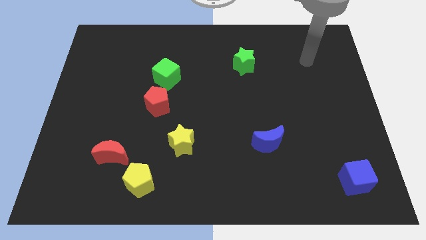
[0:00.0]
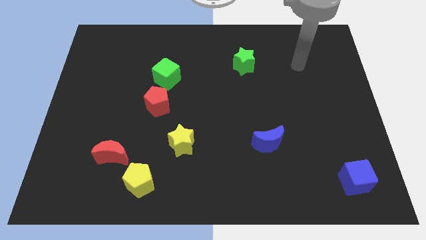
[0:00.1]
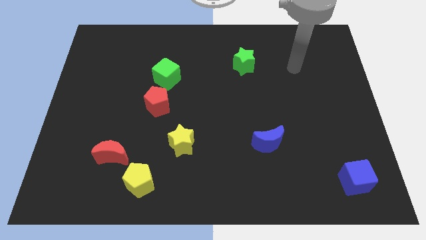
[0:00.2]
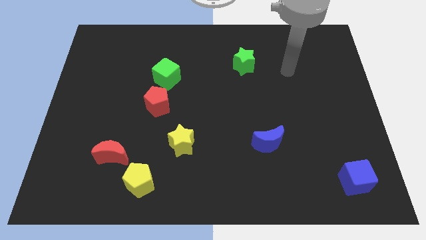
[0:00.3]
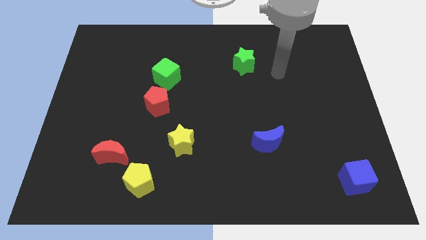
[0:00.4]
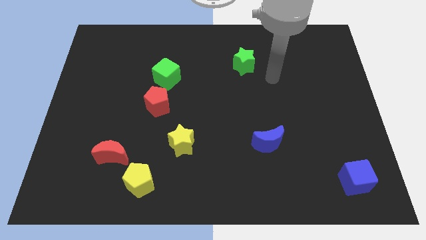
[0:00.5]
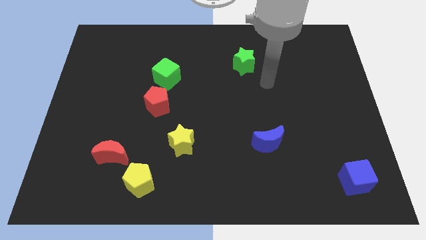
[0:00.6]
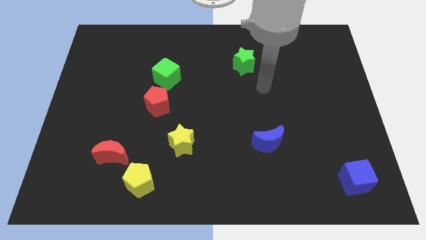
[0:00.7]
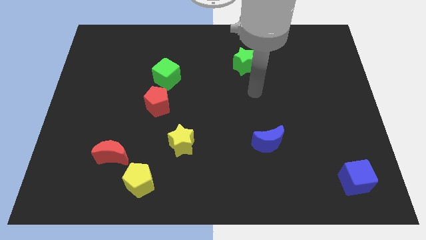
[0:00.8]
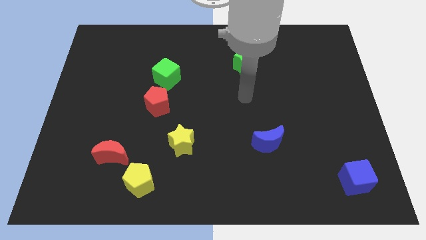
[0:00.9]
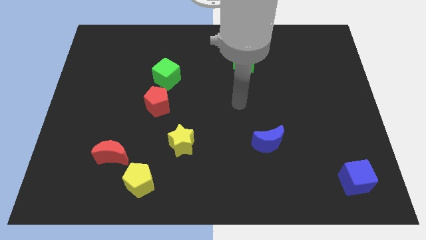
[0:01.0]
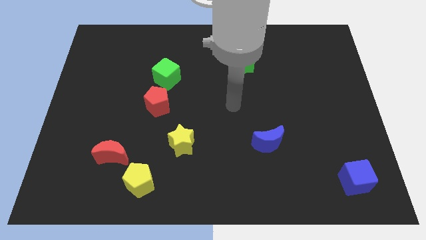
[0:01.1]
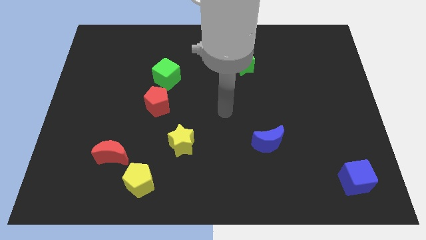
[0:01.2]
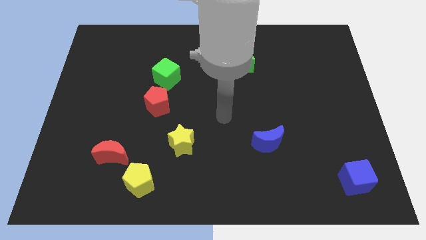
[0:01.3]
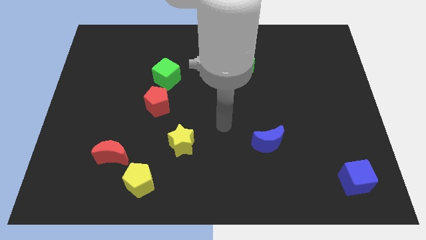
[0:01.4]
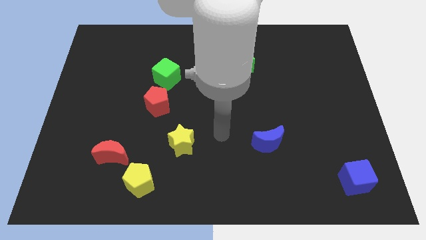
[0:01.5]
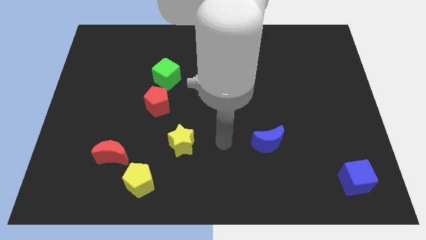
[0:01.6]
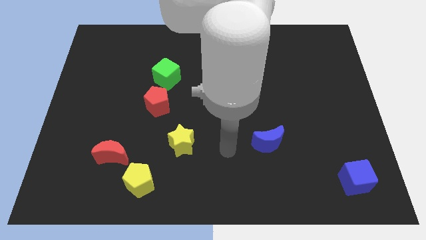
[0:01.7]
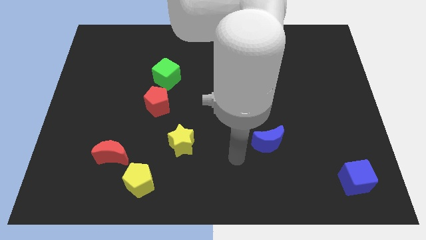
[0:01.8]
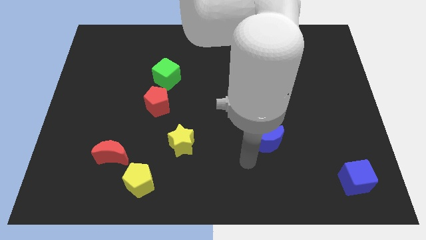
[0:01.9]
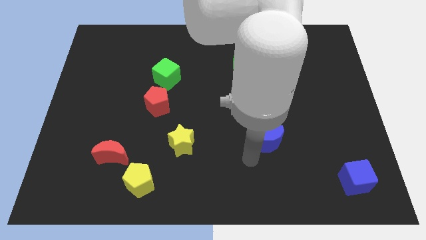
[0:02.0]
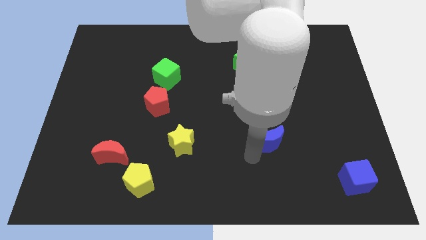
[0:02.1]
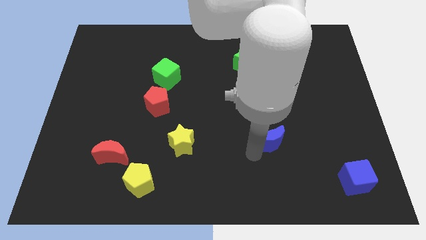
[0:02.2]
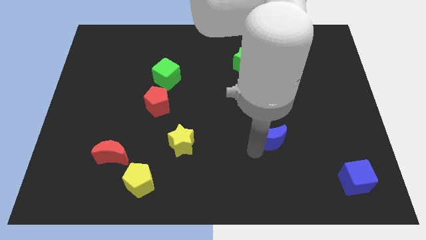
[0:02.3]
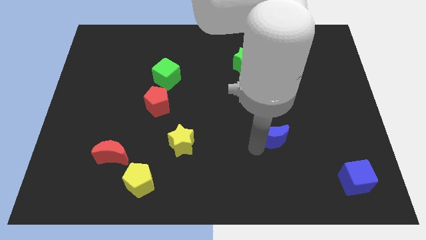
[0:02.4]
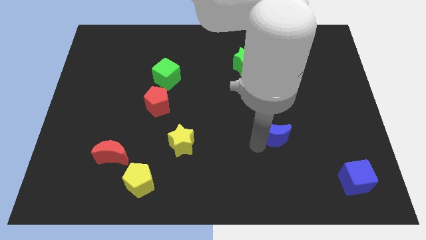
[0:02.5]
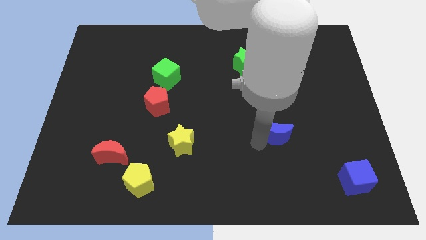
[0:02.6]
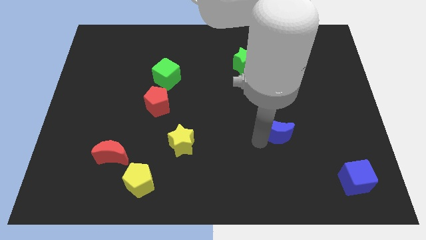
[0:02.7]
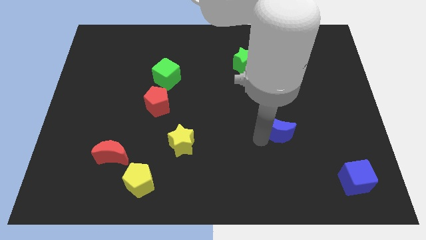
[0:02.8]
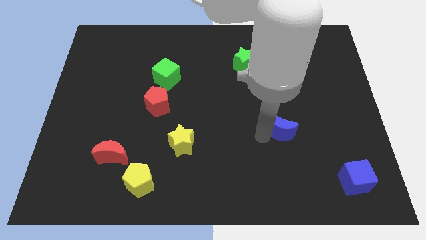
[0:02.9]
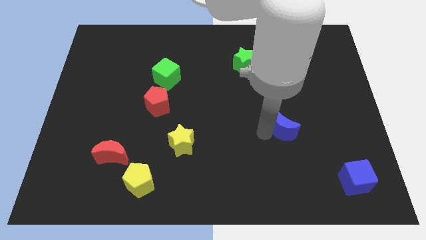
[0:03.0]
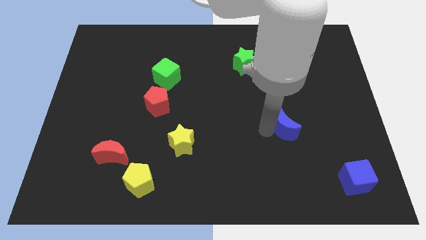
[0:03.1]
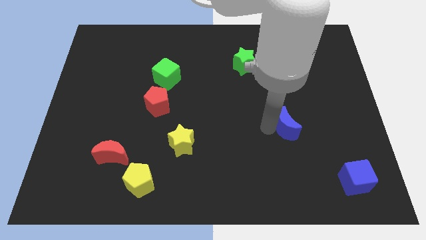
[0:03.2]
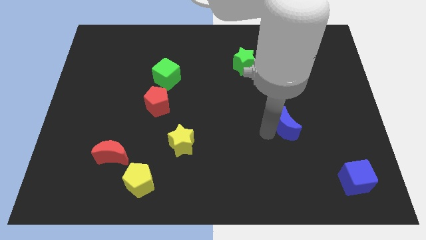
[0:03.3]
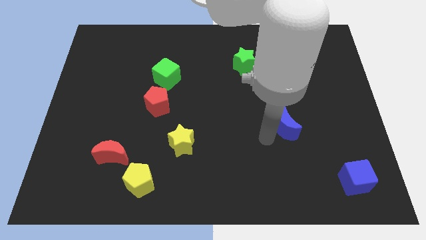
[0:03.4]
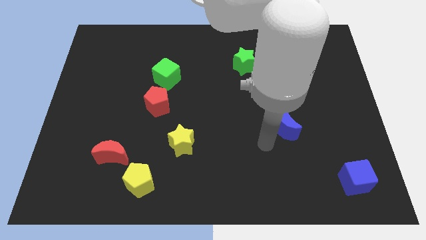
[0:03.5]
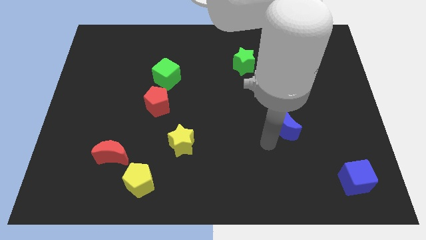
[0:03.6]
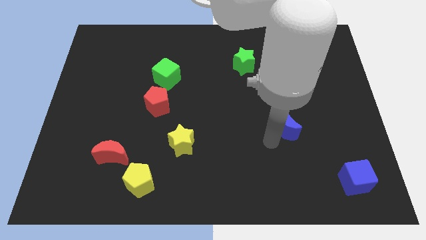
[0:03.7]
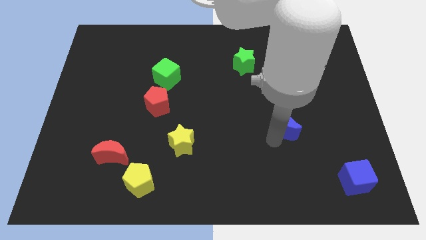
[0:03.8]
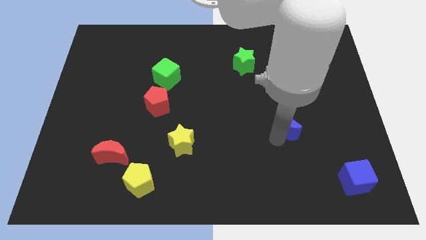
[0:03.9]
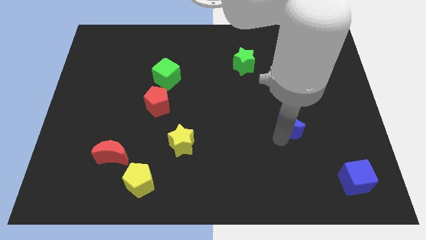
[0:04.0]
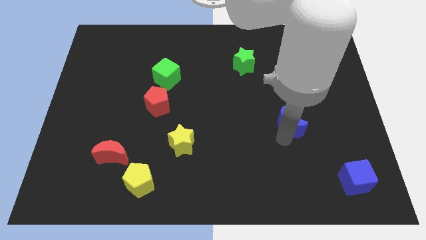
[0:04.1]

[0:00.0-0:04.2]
move the blue moon up and then right somewhat

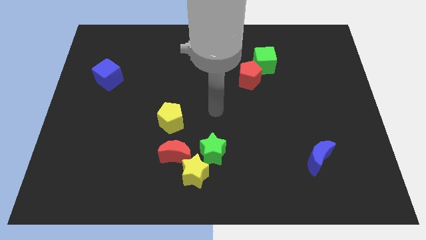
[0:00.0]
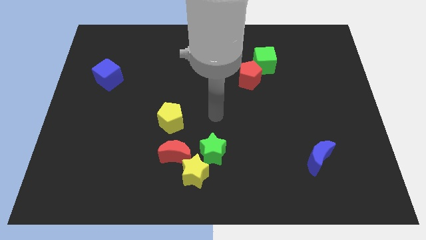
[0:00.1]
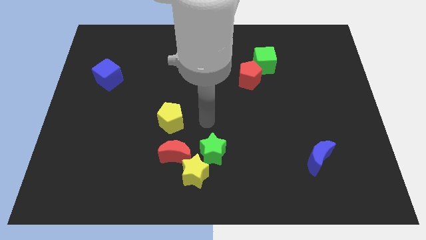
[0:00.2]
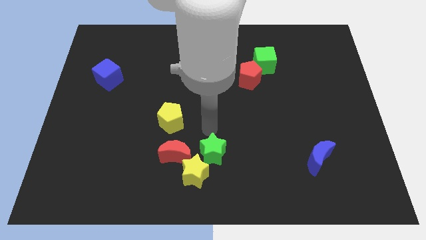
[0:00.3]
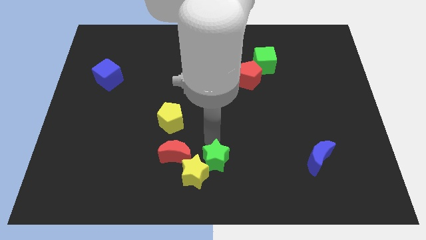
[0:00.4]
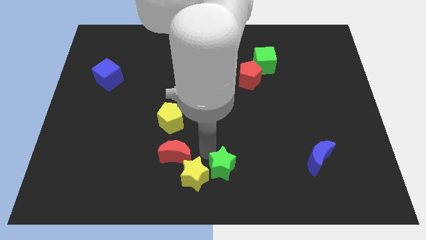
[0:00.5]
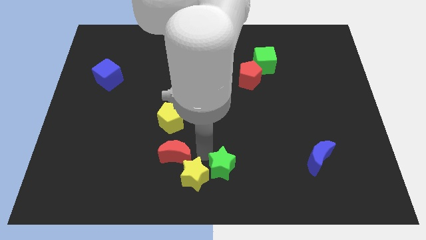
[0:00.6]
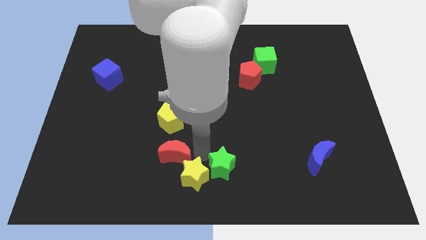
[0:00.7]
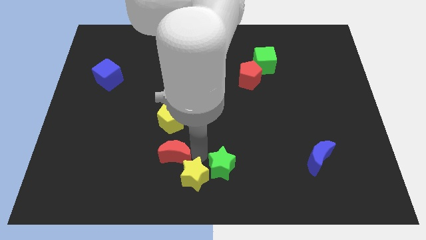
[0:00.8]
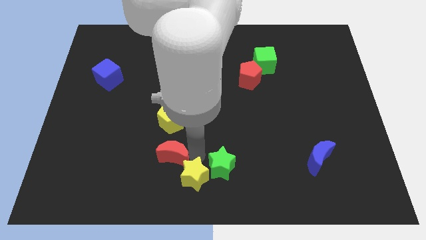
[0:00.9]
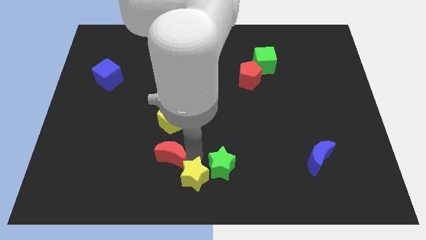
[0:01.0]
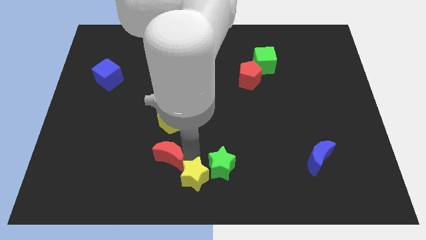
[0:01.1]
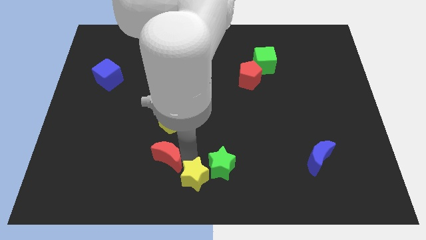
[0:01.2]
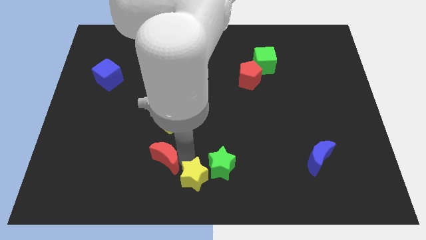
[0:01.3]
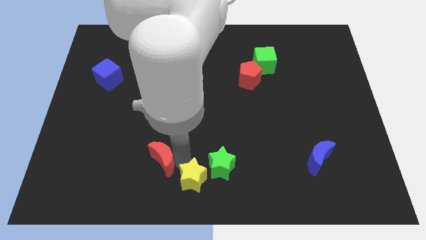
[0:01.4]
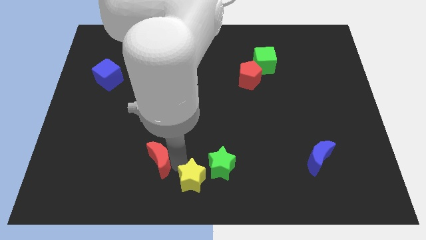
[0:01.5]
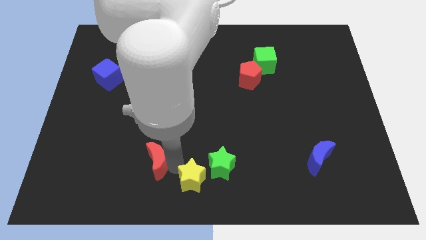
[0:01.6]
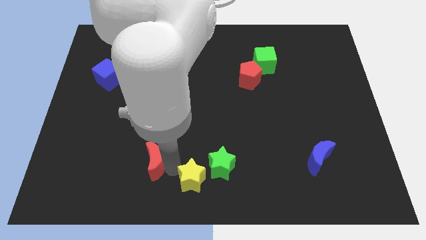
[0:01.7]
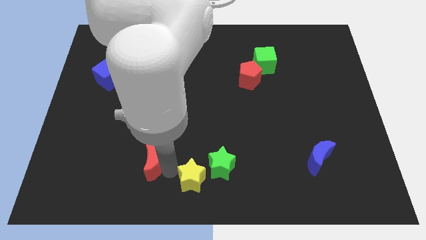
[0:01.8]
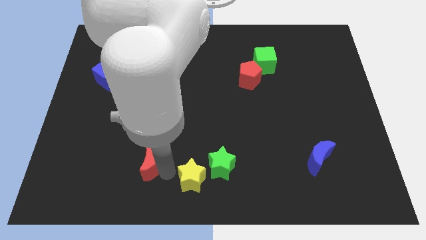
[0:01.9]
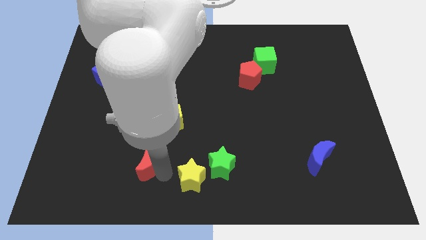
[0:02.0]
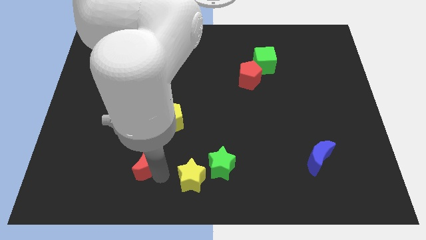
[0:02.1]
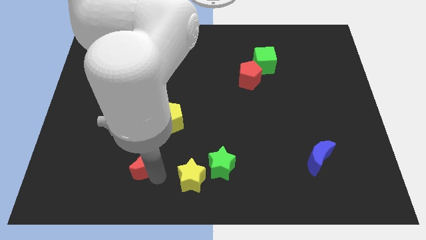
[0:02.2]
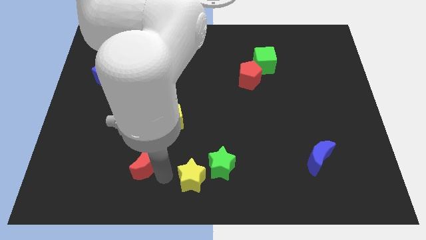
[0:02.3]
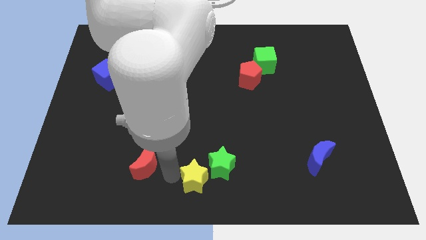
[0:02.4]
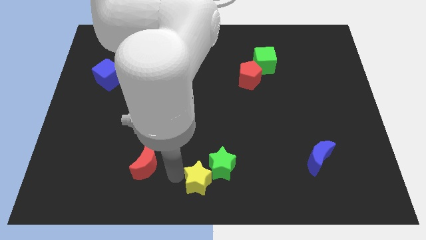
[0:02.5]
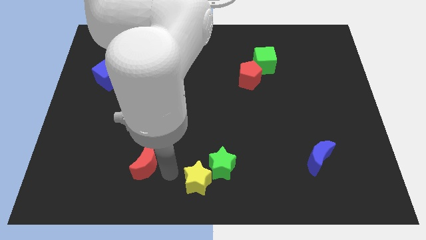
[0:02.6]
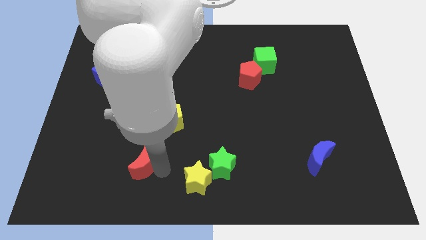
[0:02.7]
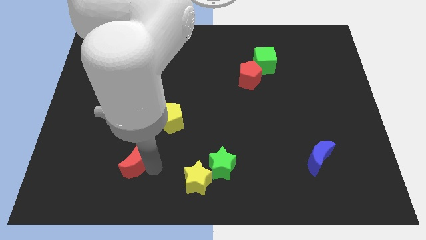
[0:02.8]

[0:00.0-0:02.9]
slightly push the red moon left

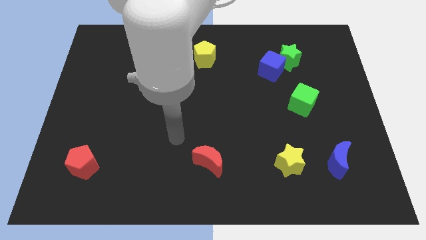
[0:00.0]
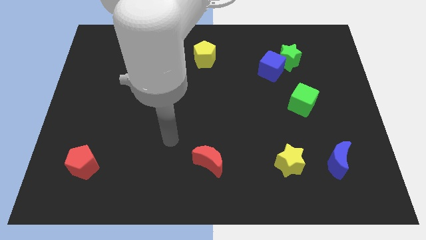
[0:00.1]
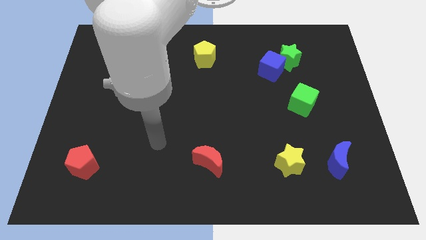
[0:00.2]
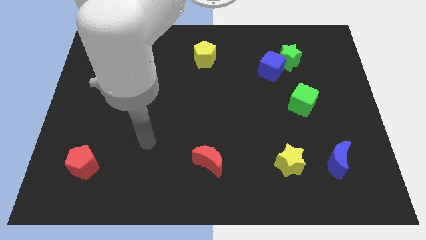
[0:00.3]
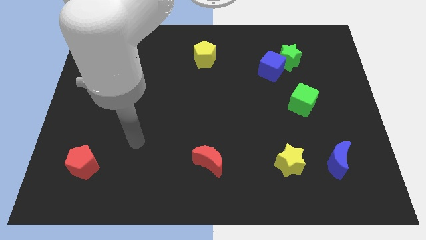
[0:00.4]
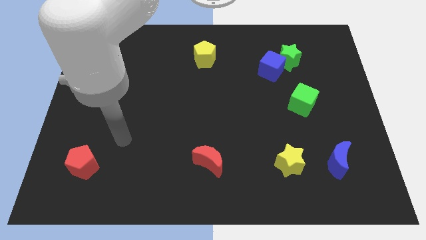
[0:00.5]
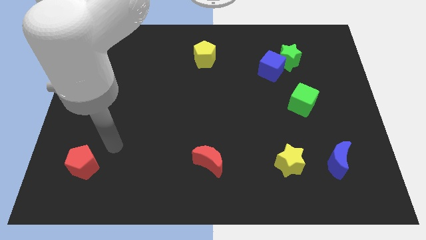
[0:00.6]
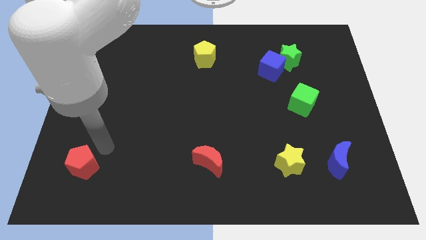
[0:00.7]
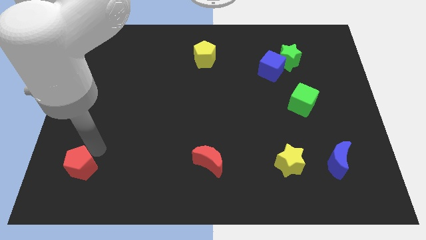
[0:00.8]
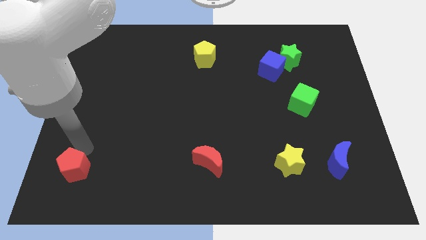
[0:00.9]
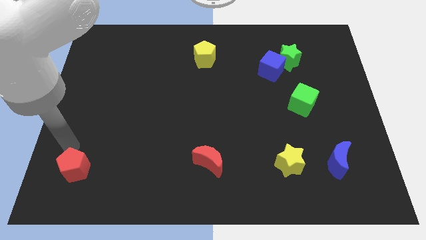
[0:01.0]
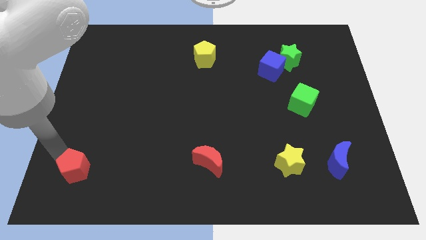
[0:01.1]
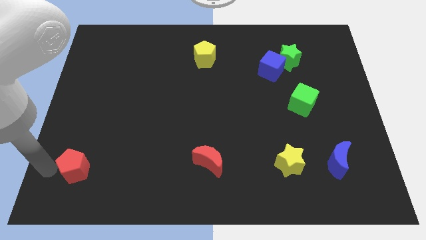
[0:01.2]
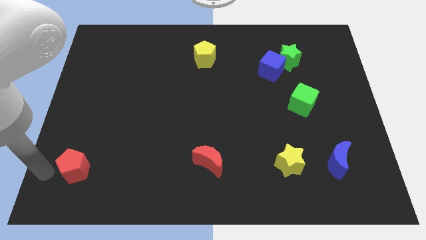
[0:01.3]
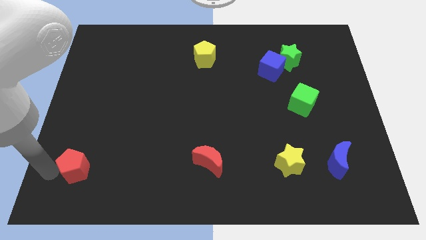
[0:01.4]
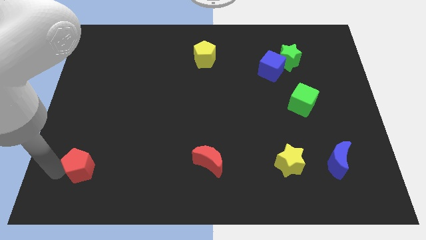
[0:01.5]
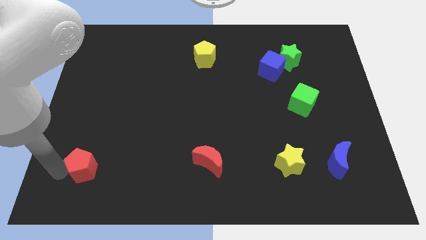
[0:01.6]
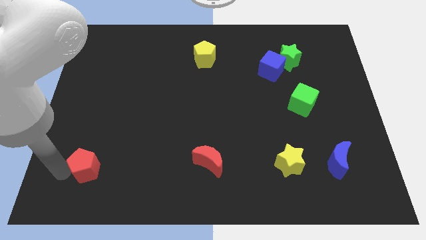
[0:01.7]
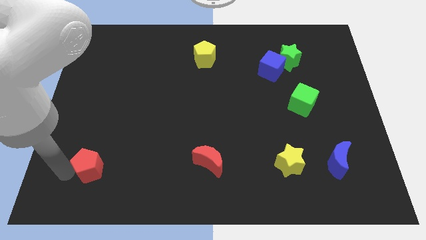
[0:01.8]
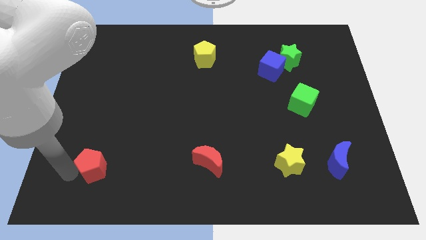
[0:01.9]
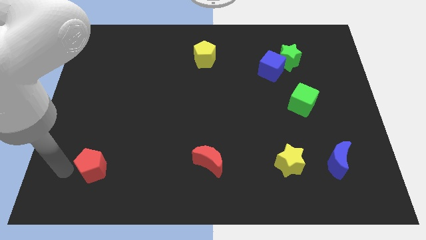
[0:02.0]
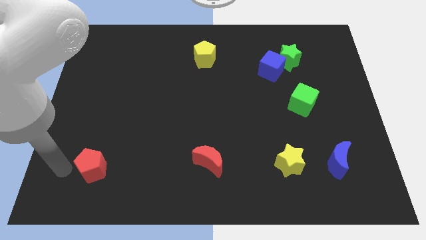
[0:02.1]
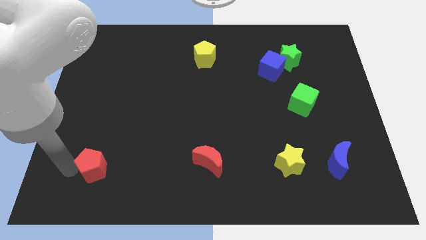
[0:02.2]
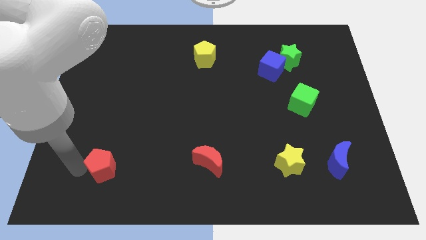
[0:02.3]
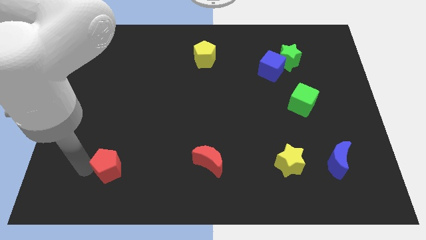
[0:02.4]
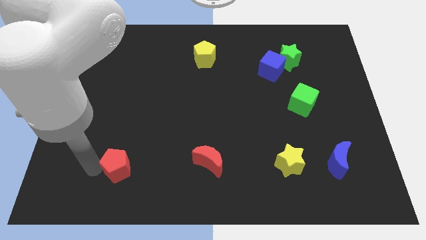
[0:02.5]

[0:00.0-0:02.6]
move the red pentagon slightly to the right
